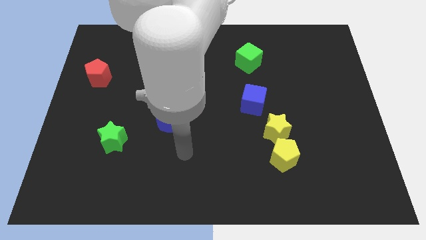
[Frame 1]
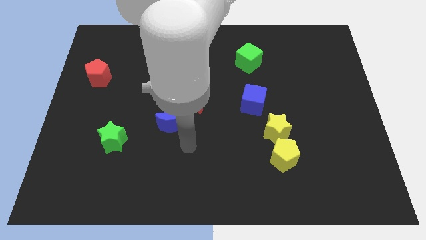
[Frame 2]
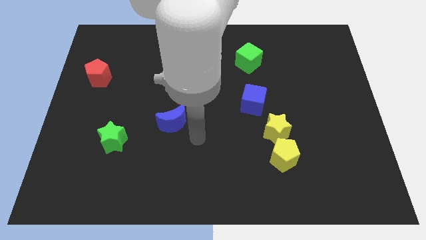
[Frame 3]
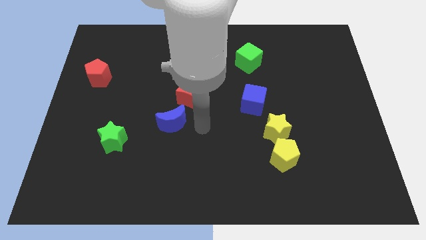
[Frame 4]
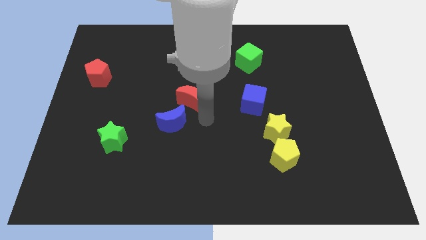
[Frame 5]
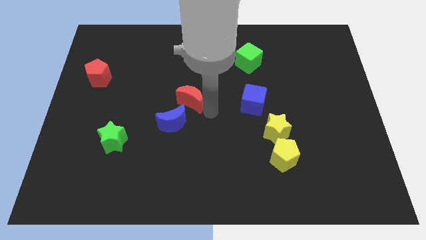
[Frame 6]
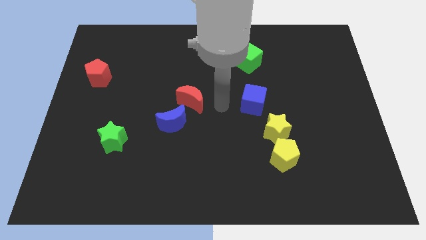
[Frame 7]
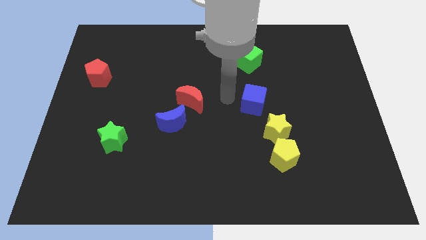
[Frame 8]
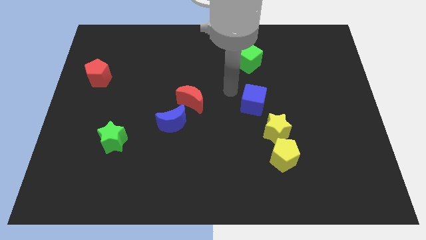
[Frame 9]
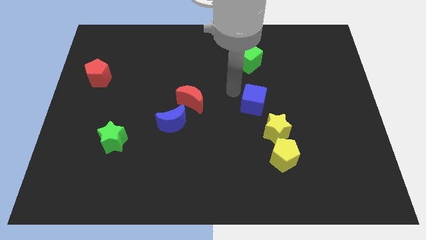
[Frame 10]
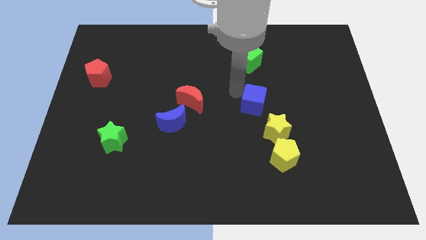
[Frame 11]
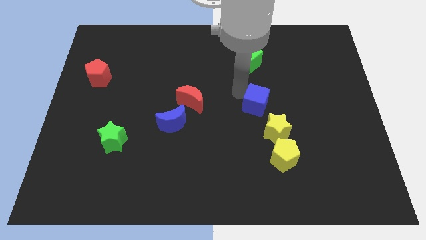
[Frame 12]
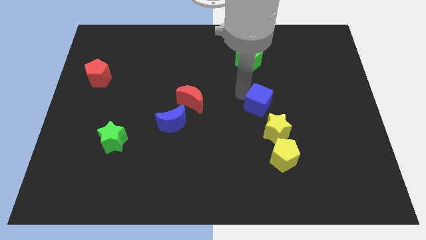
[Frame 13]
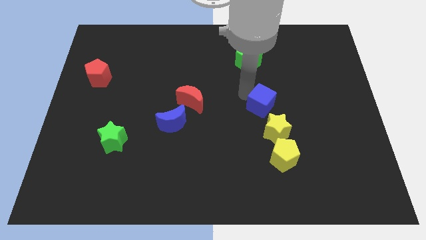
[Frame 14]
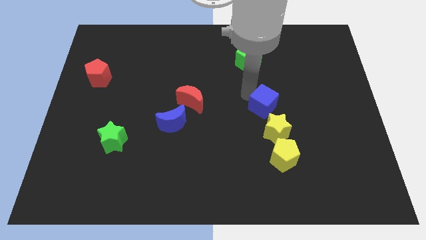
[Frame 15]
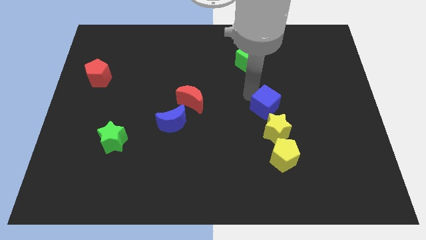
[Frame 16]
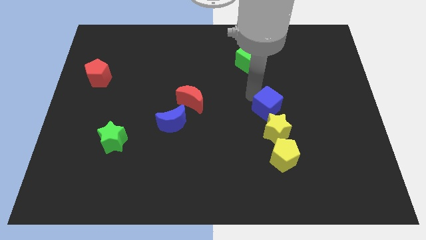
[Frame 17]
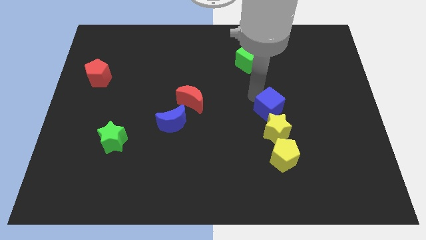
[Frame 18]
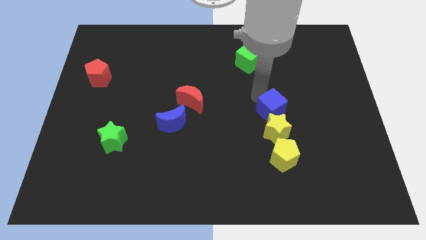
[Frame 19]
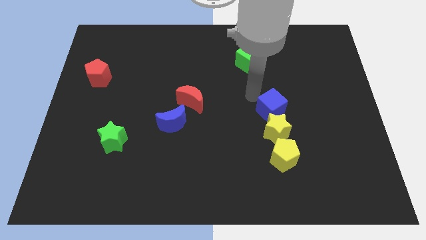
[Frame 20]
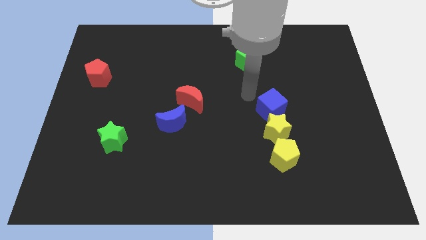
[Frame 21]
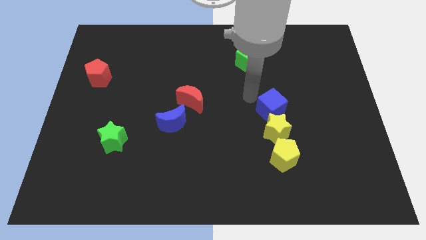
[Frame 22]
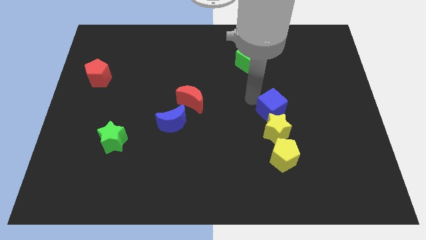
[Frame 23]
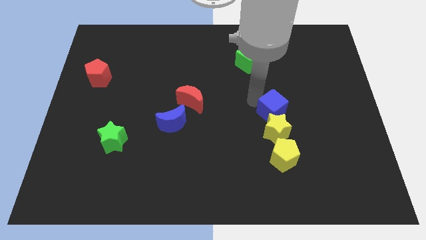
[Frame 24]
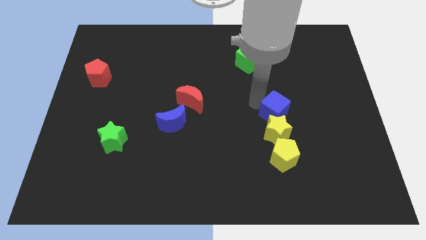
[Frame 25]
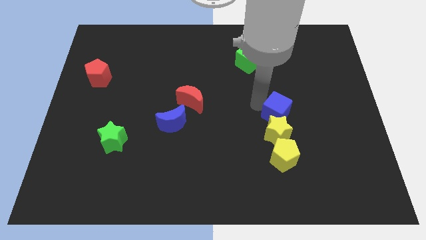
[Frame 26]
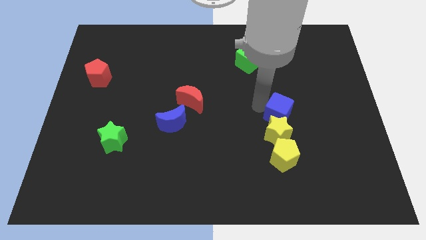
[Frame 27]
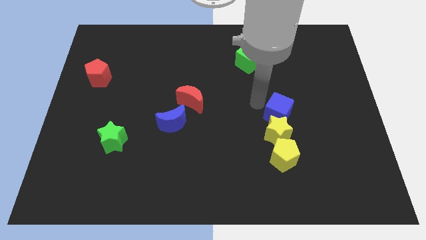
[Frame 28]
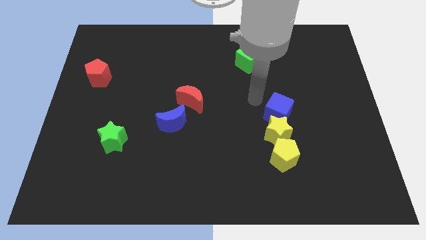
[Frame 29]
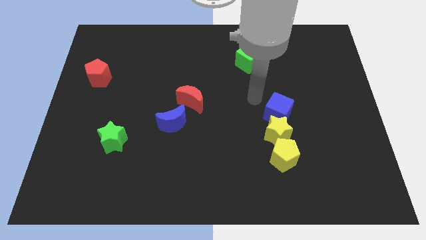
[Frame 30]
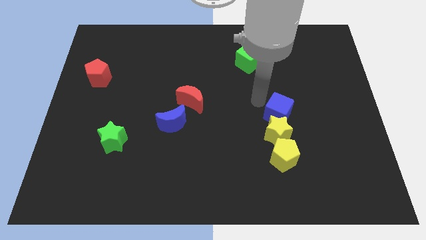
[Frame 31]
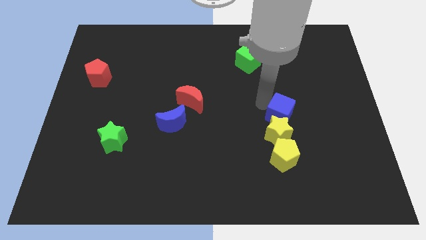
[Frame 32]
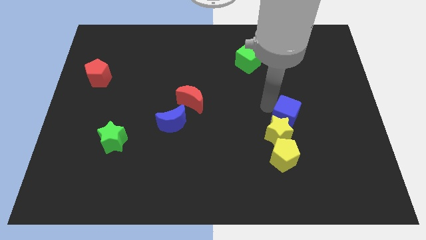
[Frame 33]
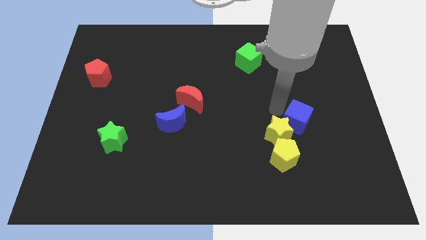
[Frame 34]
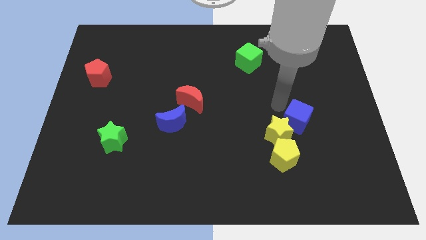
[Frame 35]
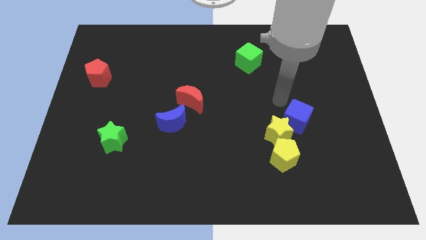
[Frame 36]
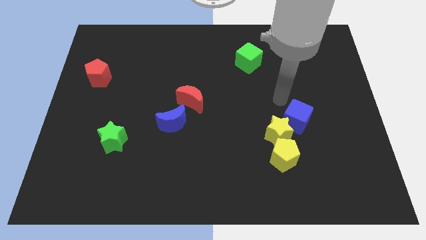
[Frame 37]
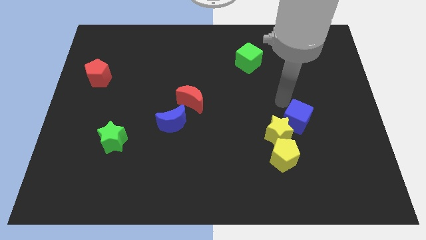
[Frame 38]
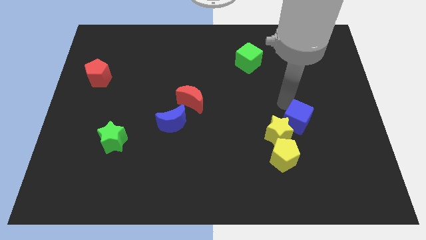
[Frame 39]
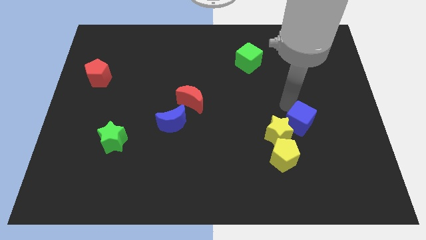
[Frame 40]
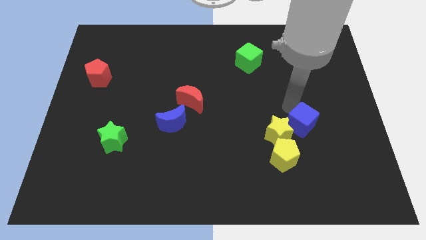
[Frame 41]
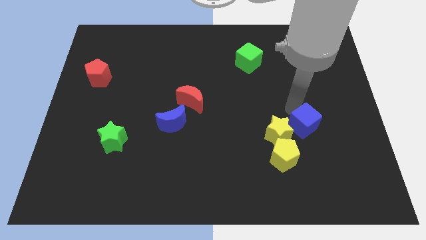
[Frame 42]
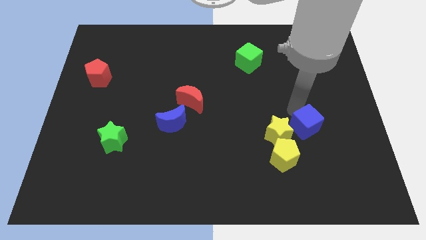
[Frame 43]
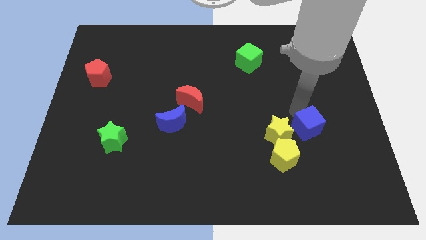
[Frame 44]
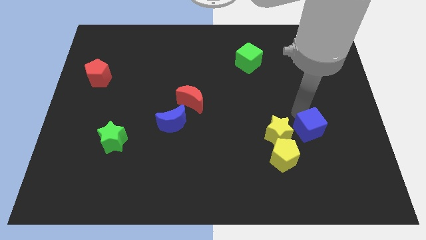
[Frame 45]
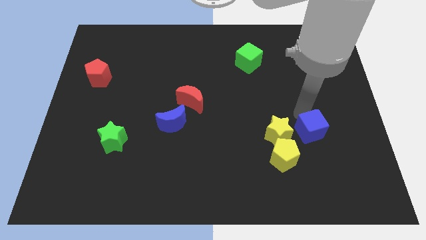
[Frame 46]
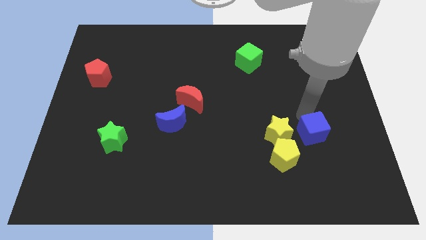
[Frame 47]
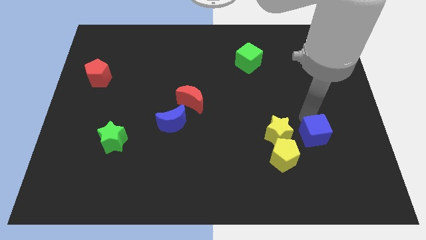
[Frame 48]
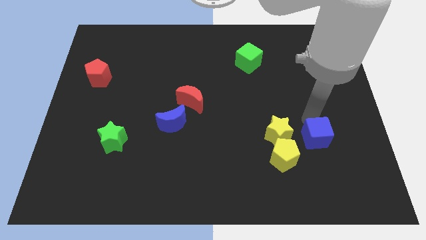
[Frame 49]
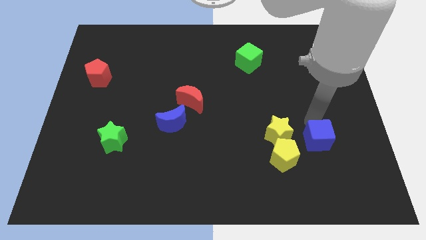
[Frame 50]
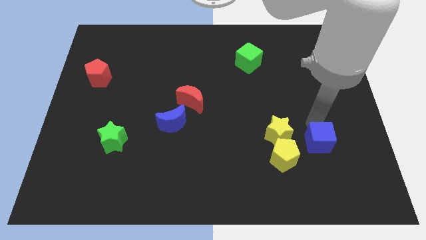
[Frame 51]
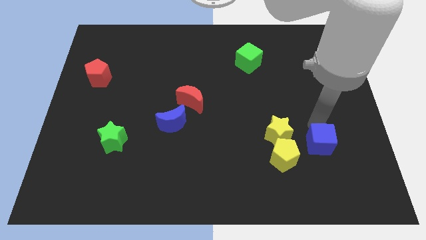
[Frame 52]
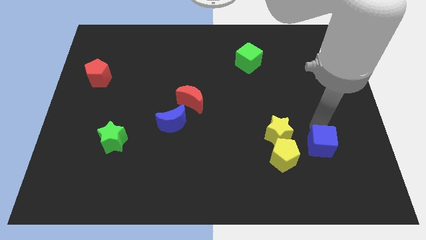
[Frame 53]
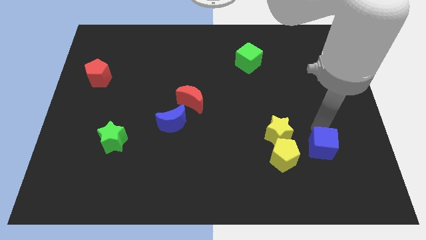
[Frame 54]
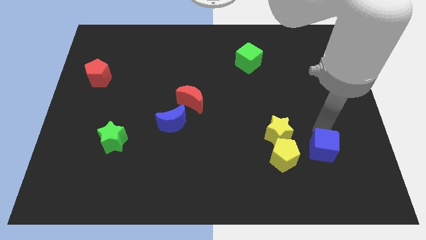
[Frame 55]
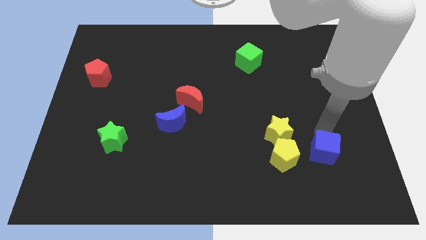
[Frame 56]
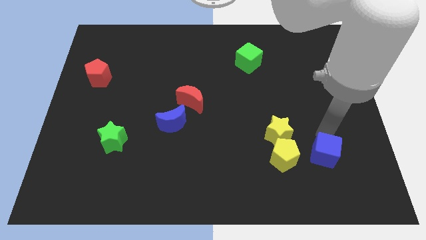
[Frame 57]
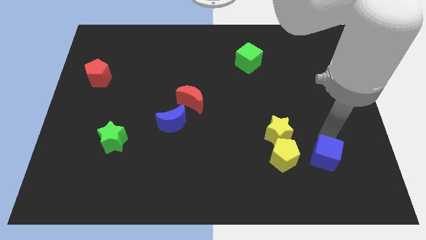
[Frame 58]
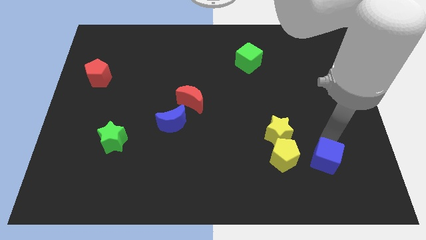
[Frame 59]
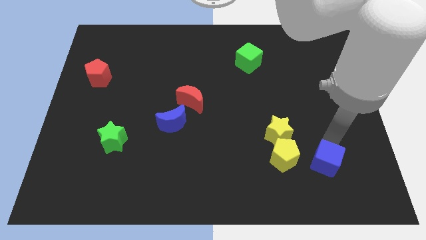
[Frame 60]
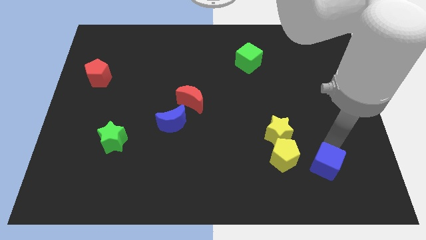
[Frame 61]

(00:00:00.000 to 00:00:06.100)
push the blue cube diagonally down and to the right of the yellow pentagon

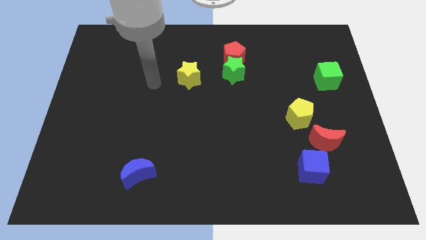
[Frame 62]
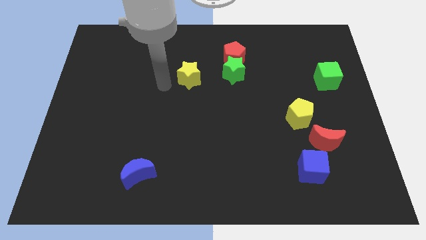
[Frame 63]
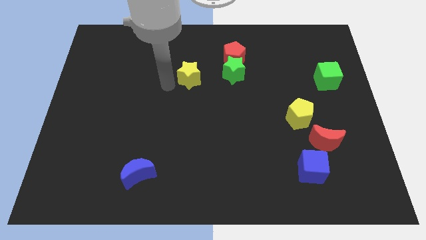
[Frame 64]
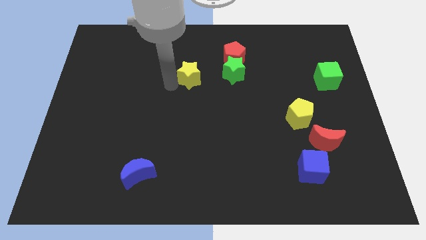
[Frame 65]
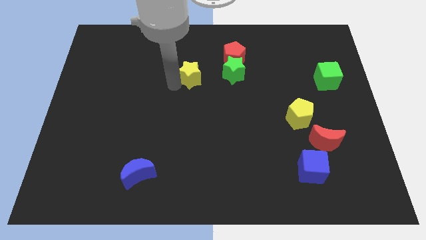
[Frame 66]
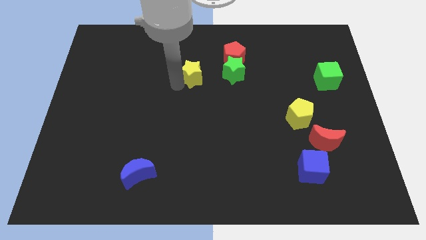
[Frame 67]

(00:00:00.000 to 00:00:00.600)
move the yellow star to the bottom left side of the red pentagon
